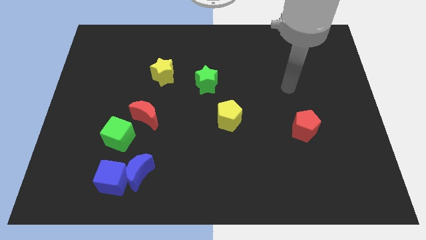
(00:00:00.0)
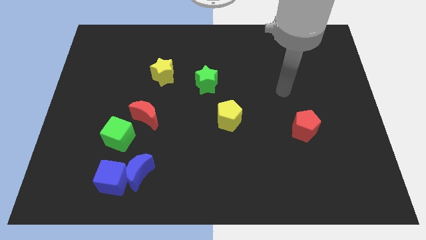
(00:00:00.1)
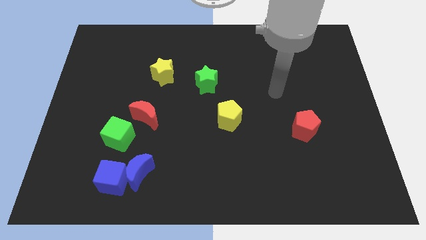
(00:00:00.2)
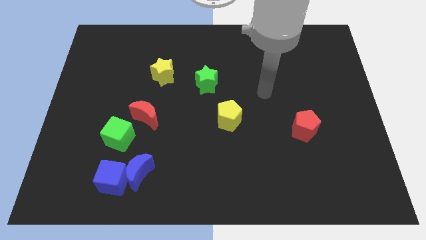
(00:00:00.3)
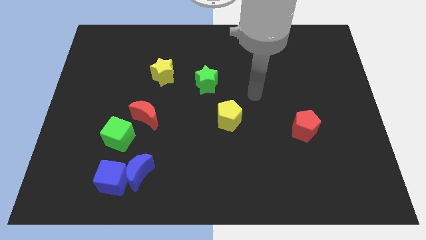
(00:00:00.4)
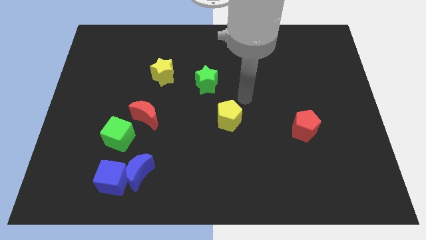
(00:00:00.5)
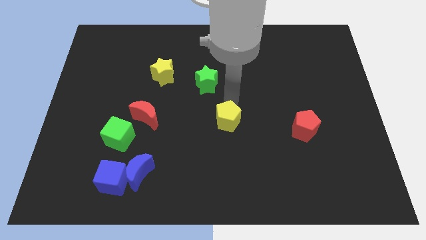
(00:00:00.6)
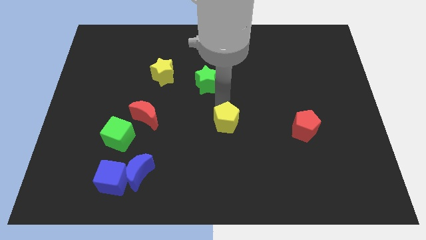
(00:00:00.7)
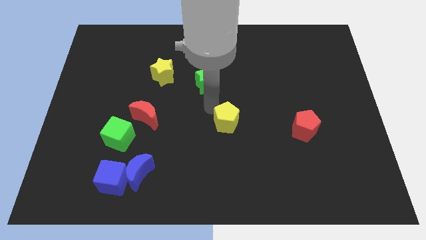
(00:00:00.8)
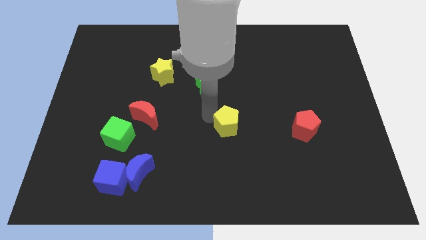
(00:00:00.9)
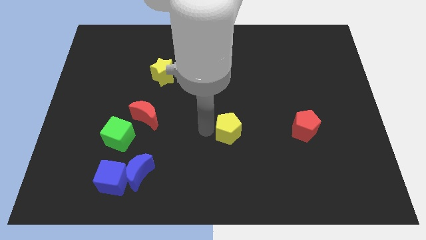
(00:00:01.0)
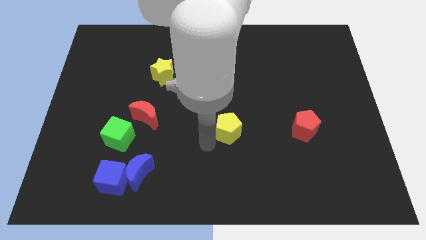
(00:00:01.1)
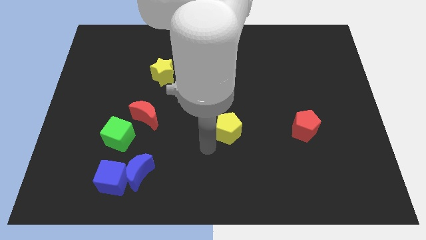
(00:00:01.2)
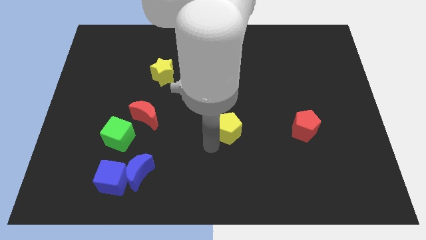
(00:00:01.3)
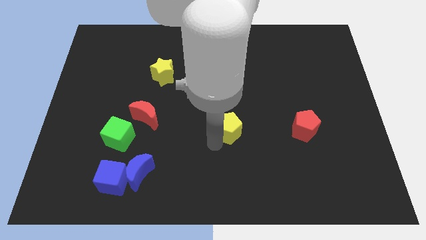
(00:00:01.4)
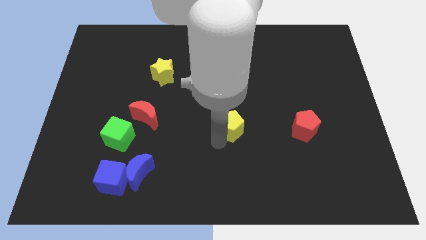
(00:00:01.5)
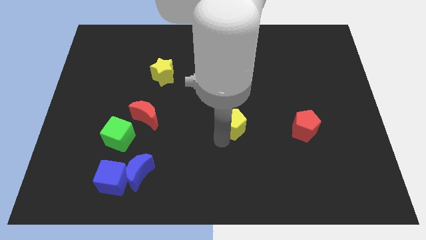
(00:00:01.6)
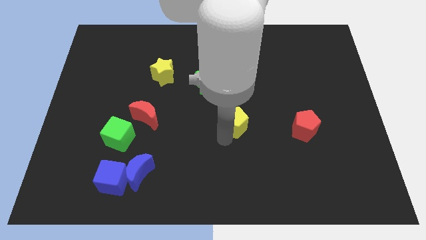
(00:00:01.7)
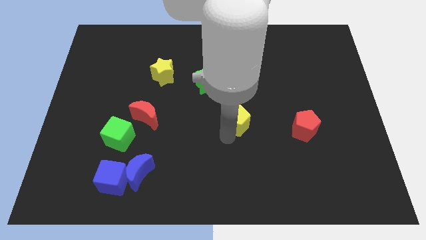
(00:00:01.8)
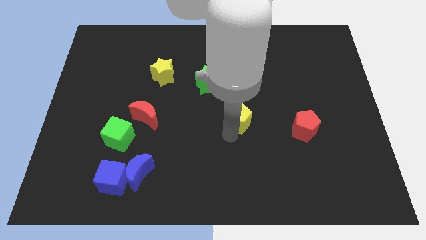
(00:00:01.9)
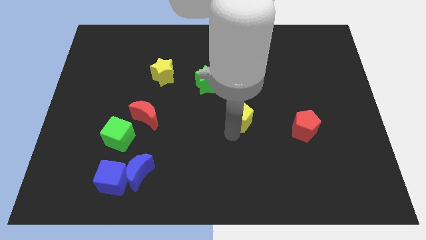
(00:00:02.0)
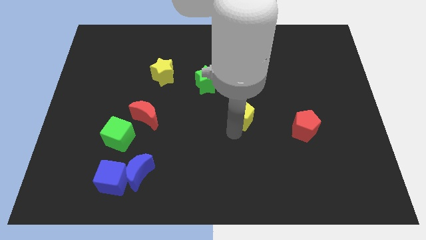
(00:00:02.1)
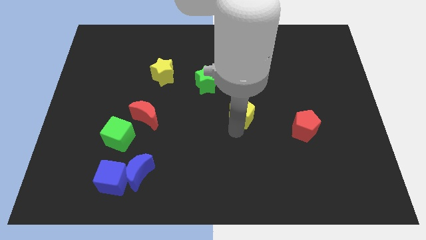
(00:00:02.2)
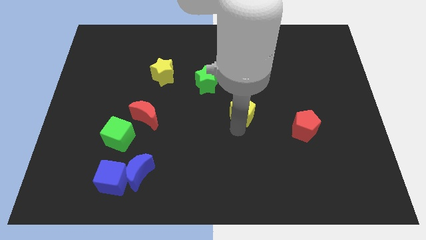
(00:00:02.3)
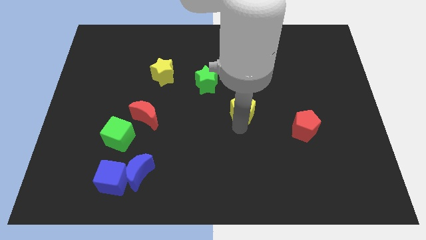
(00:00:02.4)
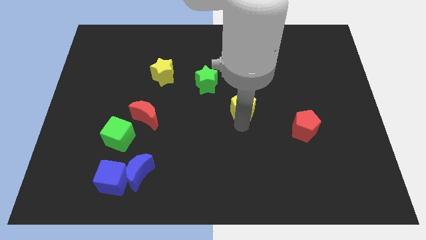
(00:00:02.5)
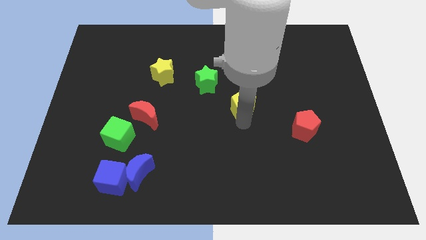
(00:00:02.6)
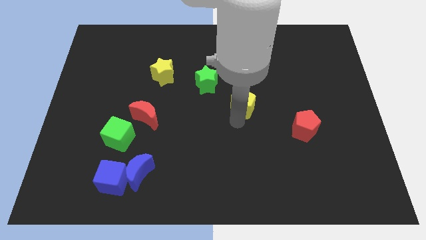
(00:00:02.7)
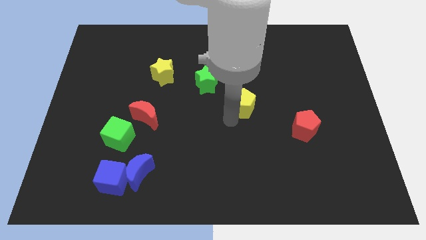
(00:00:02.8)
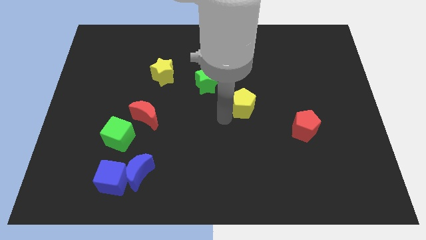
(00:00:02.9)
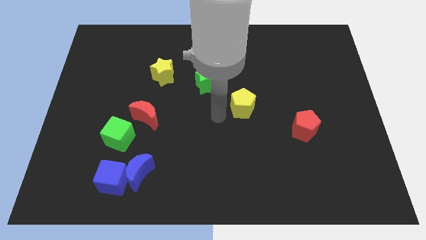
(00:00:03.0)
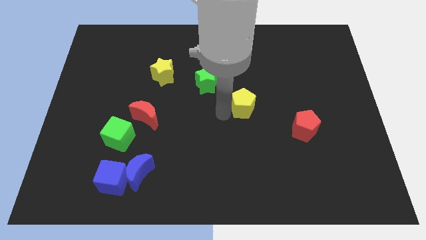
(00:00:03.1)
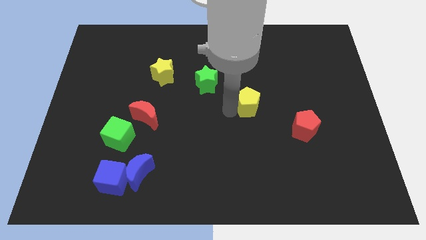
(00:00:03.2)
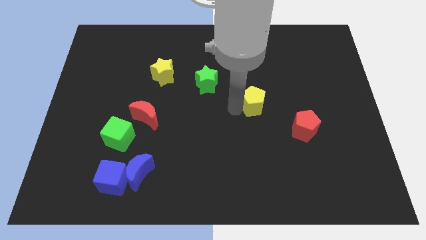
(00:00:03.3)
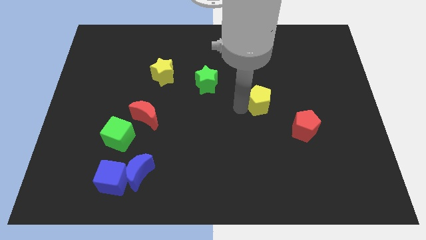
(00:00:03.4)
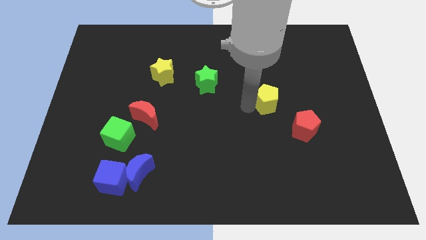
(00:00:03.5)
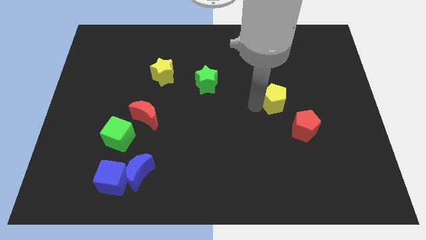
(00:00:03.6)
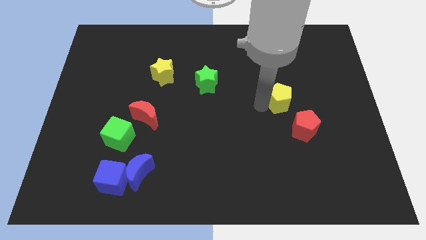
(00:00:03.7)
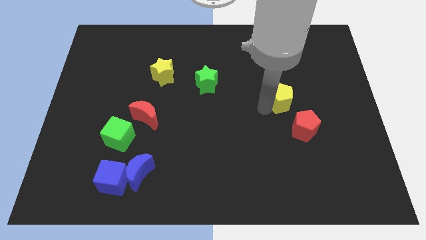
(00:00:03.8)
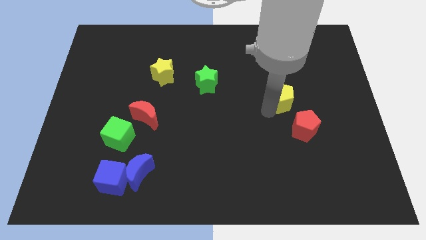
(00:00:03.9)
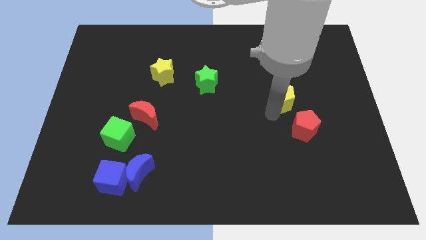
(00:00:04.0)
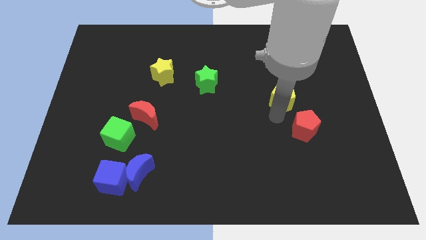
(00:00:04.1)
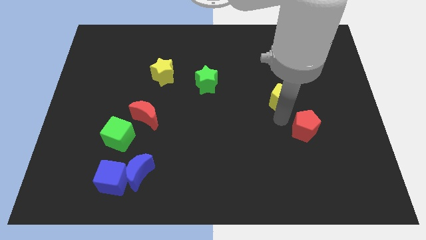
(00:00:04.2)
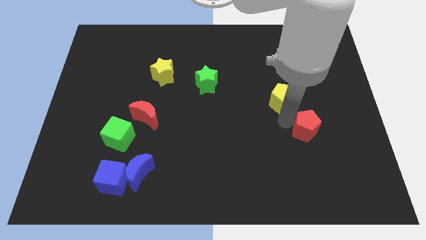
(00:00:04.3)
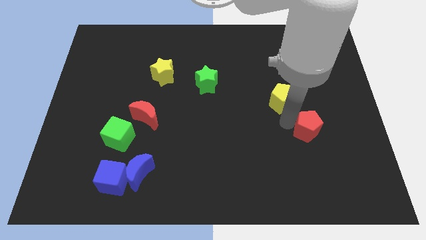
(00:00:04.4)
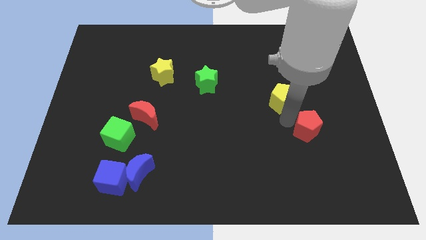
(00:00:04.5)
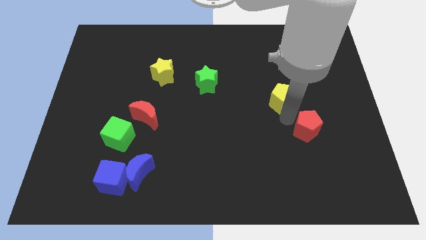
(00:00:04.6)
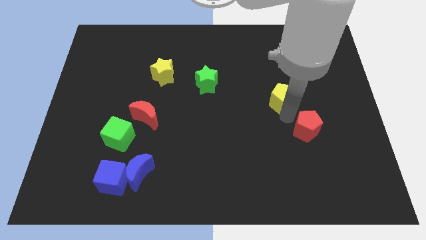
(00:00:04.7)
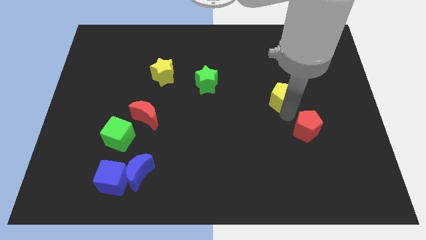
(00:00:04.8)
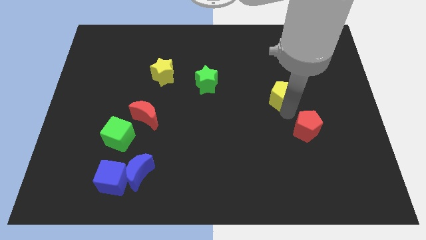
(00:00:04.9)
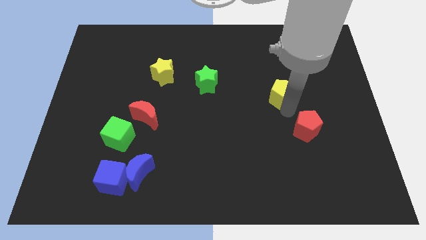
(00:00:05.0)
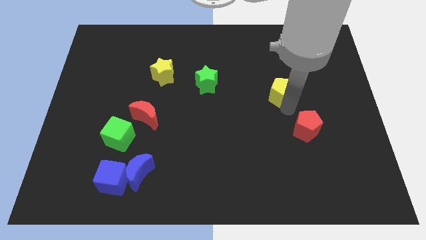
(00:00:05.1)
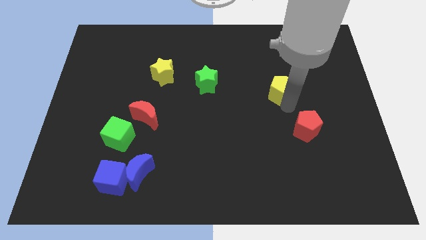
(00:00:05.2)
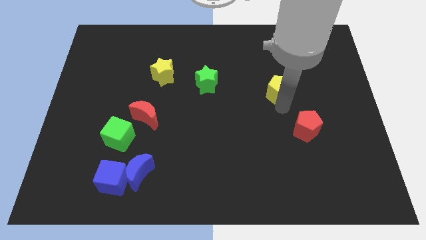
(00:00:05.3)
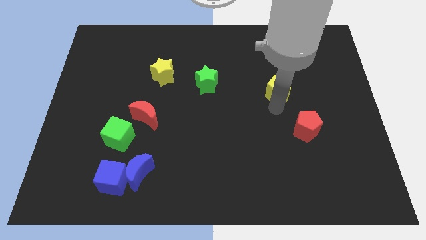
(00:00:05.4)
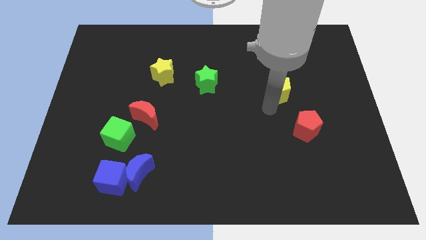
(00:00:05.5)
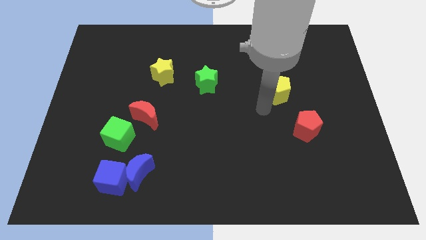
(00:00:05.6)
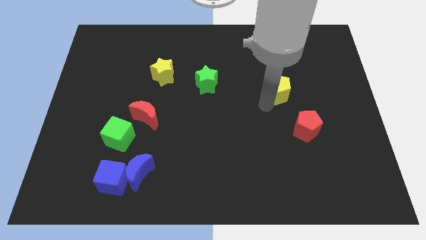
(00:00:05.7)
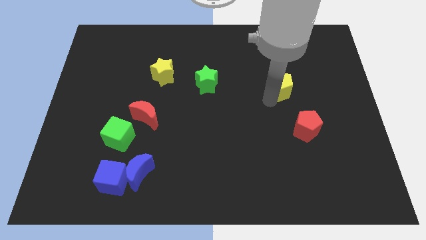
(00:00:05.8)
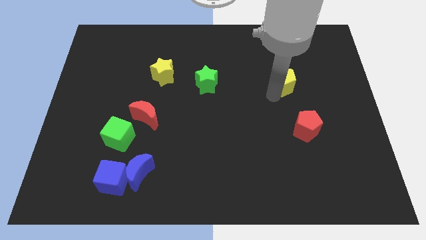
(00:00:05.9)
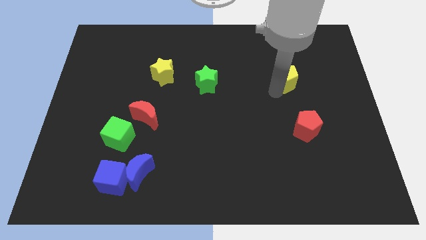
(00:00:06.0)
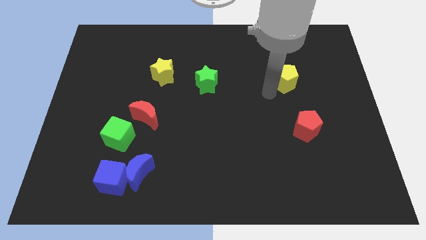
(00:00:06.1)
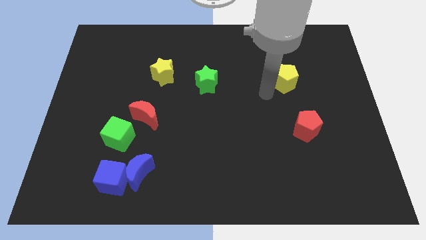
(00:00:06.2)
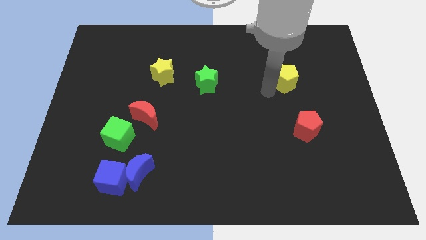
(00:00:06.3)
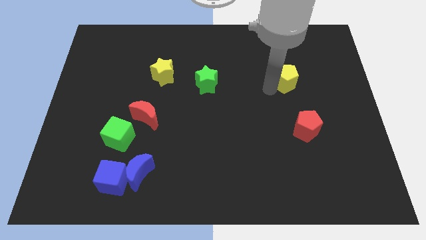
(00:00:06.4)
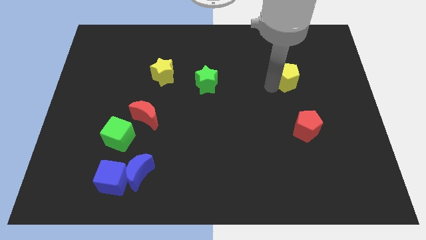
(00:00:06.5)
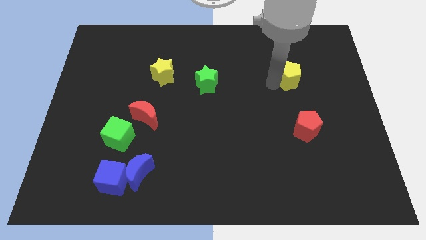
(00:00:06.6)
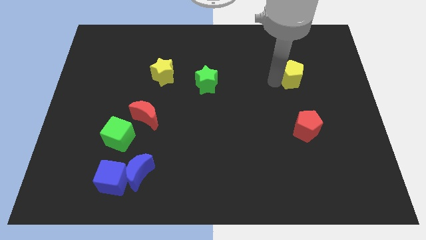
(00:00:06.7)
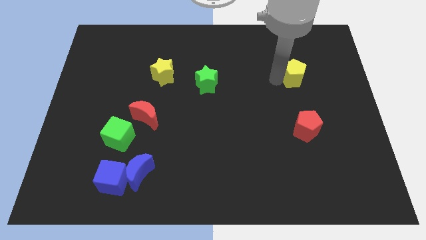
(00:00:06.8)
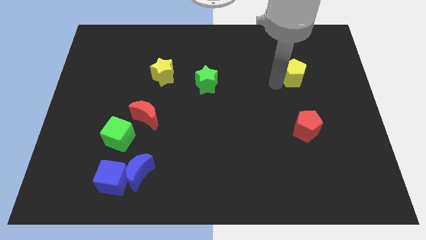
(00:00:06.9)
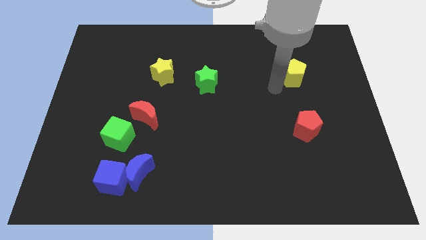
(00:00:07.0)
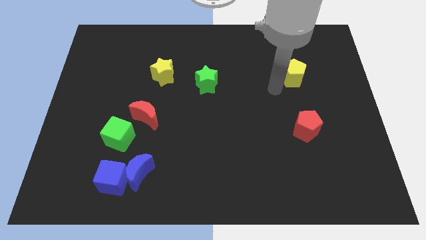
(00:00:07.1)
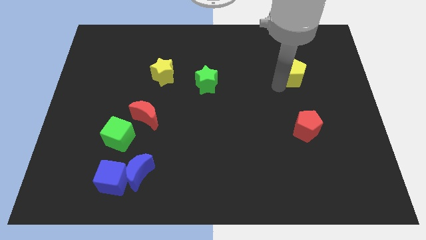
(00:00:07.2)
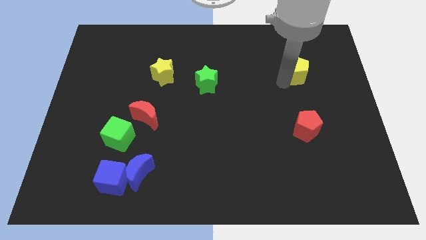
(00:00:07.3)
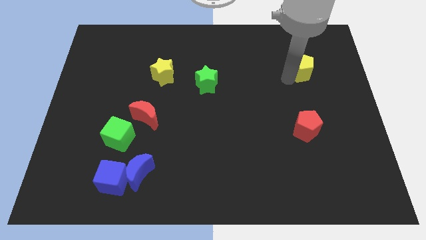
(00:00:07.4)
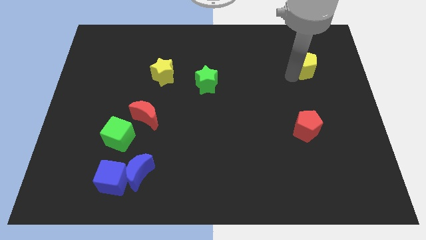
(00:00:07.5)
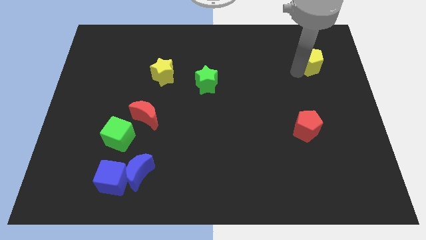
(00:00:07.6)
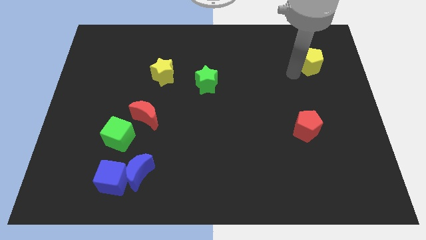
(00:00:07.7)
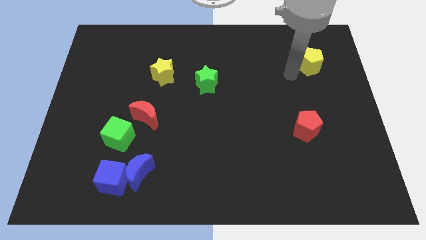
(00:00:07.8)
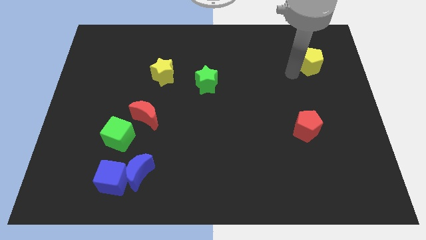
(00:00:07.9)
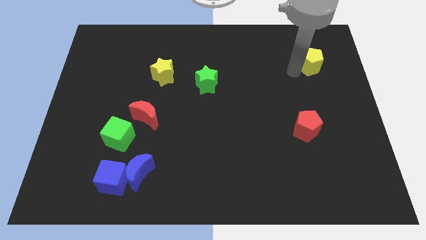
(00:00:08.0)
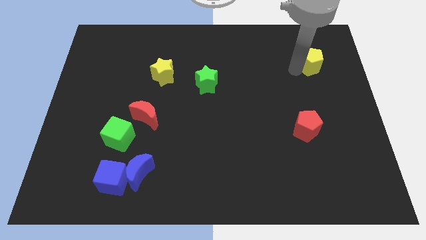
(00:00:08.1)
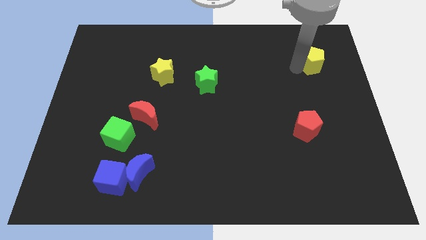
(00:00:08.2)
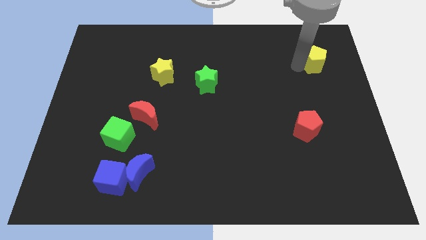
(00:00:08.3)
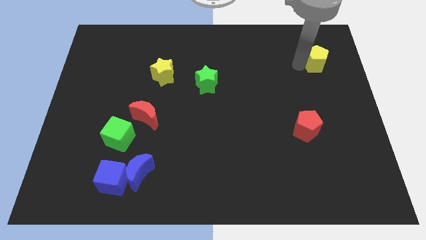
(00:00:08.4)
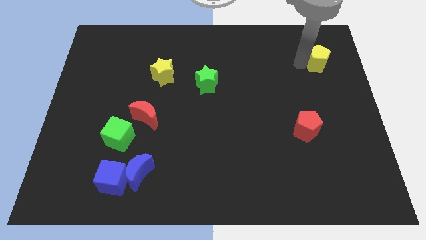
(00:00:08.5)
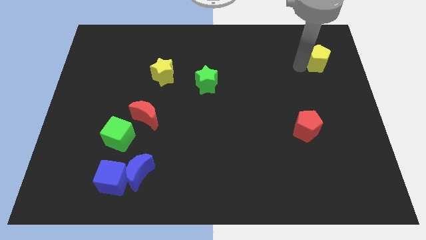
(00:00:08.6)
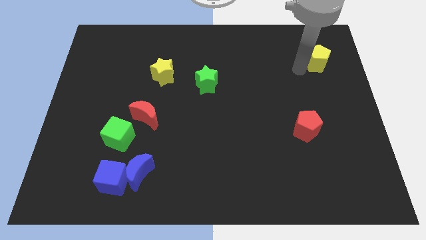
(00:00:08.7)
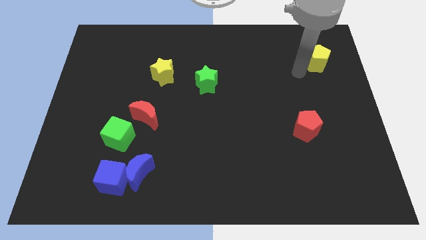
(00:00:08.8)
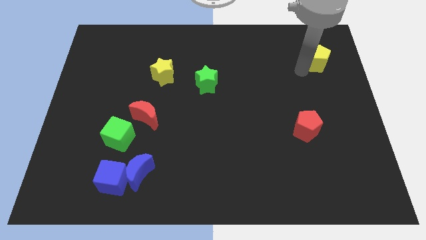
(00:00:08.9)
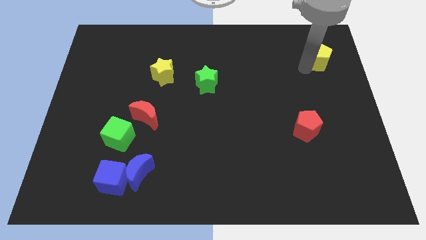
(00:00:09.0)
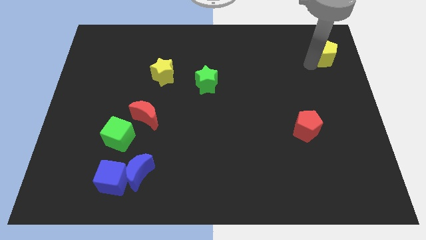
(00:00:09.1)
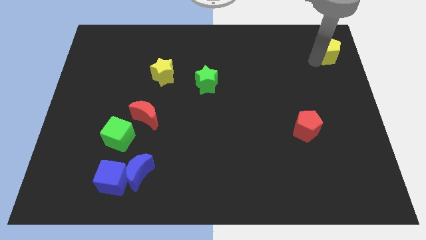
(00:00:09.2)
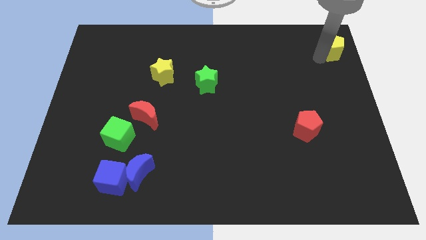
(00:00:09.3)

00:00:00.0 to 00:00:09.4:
put the yellow pentagon to the upper right corner
